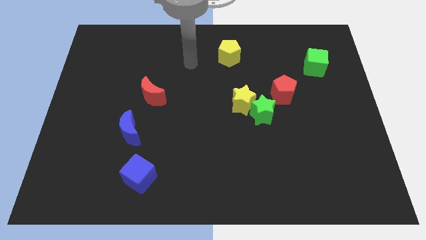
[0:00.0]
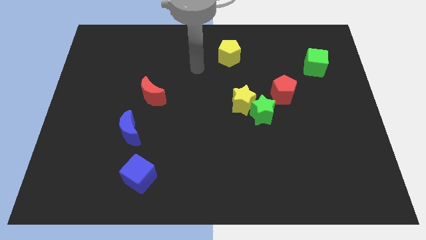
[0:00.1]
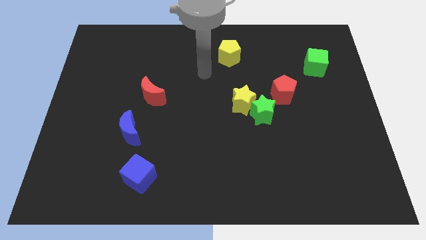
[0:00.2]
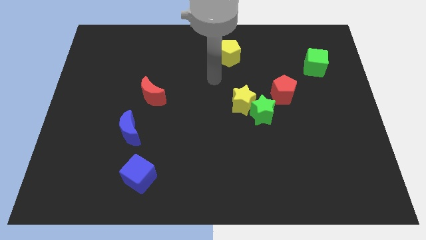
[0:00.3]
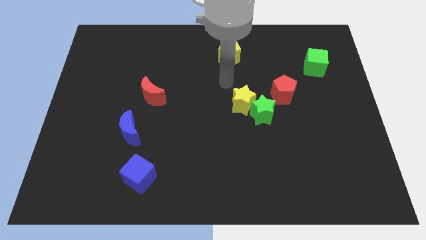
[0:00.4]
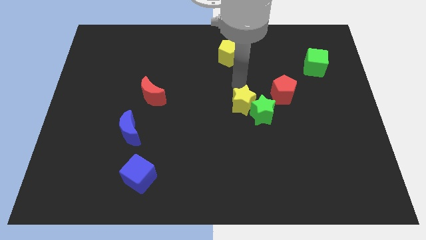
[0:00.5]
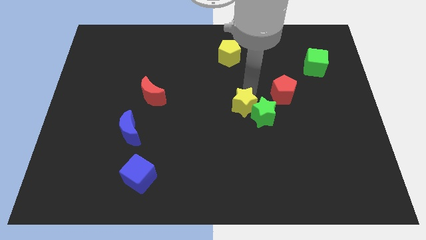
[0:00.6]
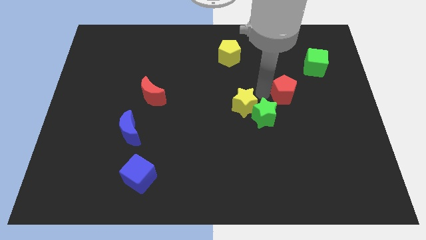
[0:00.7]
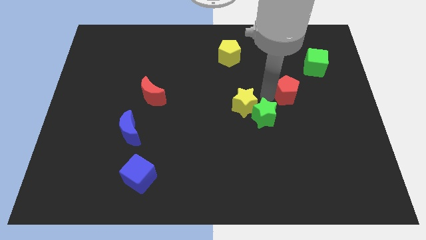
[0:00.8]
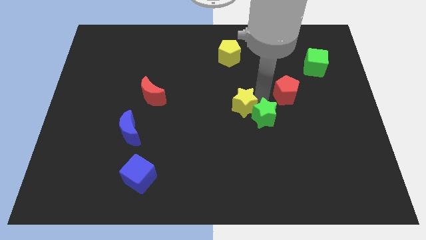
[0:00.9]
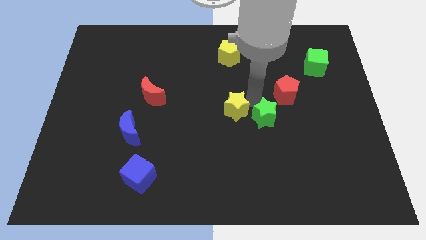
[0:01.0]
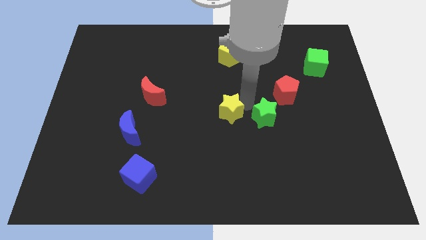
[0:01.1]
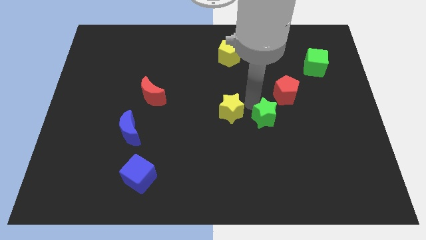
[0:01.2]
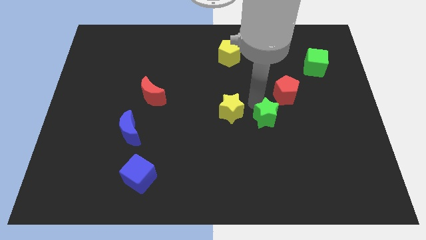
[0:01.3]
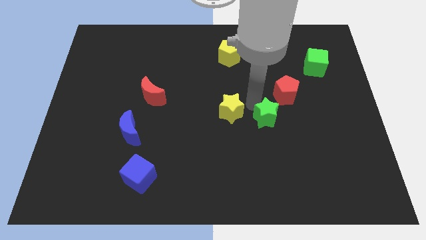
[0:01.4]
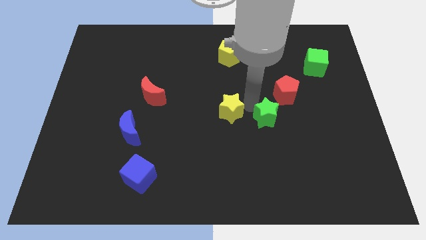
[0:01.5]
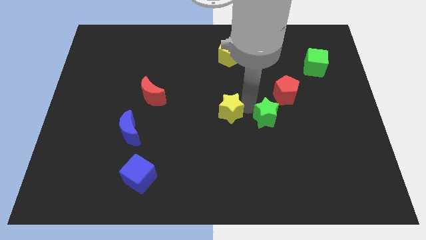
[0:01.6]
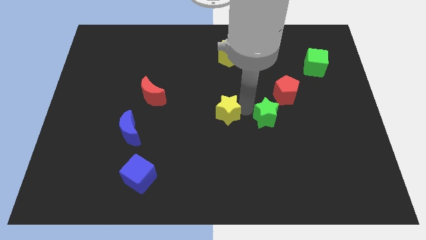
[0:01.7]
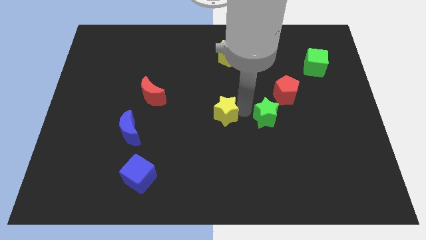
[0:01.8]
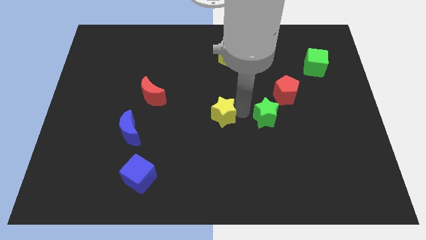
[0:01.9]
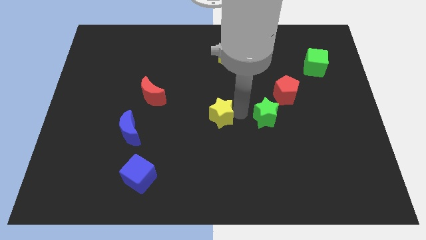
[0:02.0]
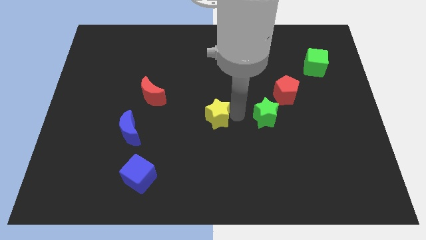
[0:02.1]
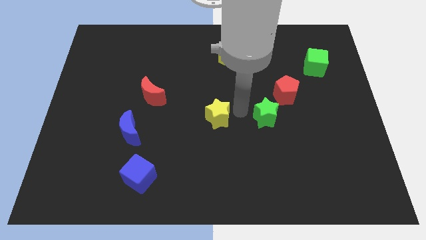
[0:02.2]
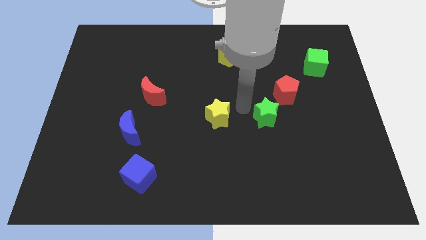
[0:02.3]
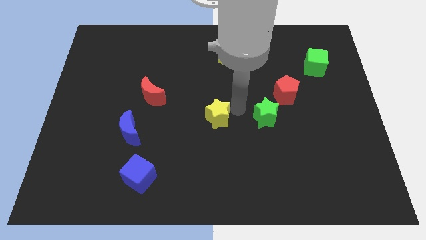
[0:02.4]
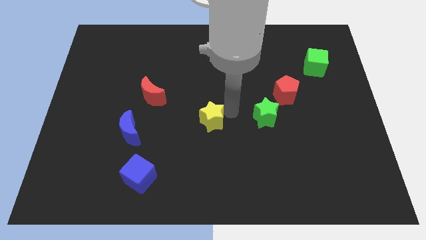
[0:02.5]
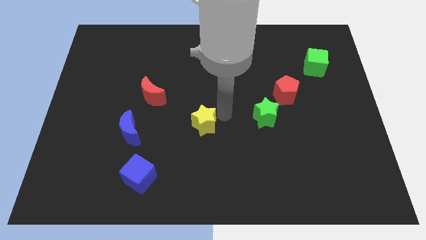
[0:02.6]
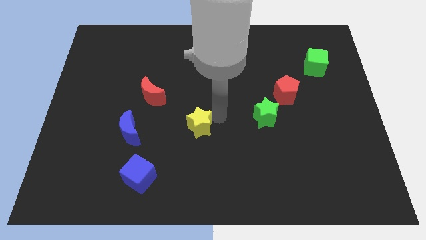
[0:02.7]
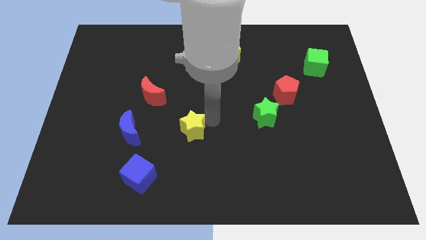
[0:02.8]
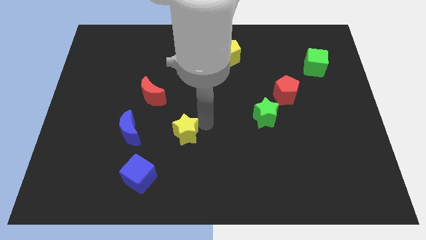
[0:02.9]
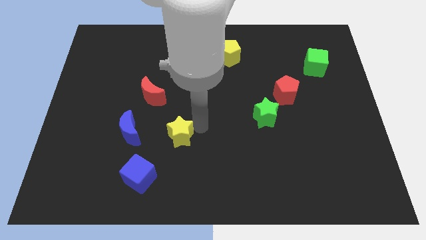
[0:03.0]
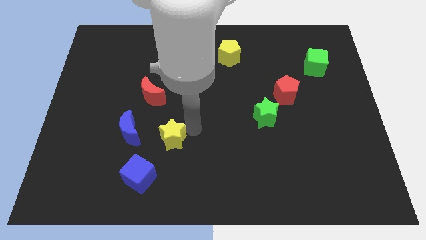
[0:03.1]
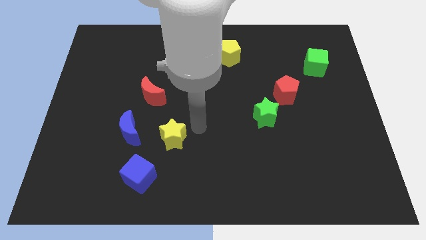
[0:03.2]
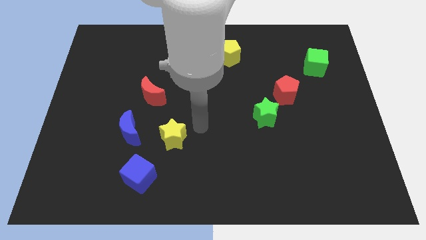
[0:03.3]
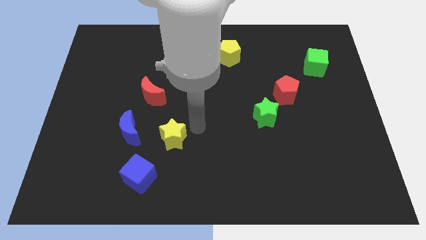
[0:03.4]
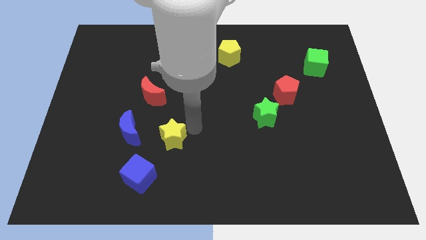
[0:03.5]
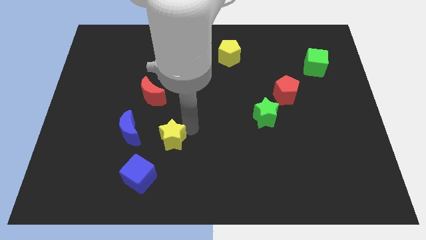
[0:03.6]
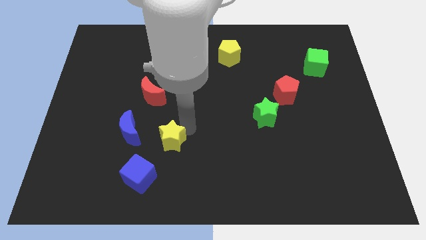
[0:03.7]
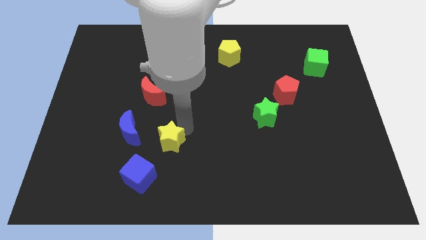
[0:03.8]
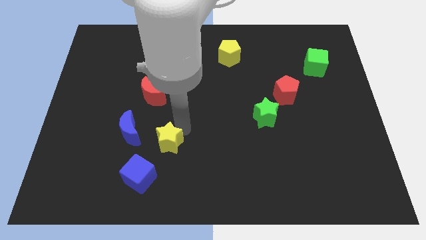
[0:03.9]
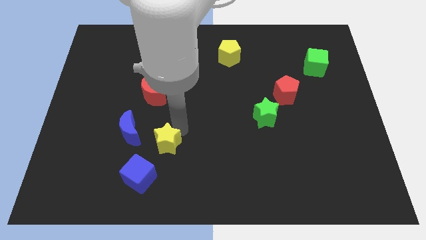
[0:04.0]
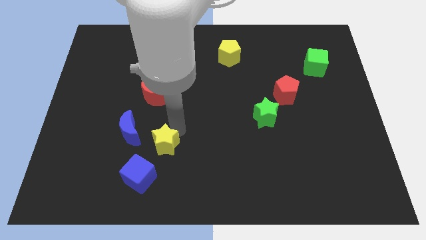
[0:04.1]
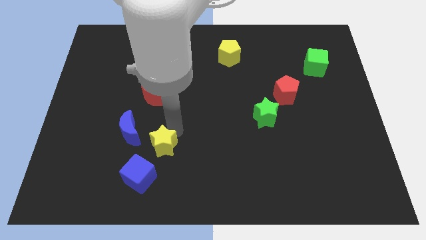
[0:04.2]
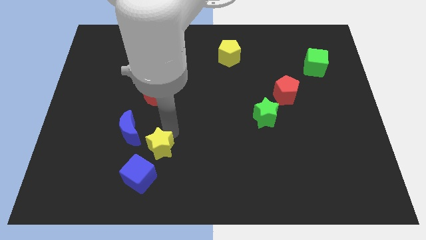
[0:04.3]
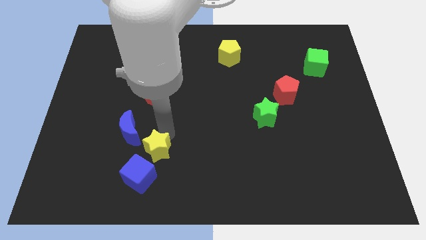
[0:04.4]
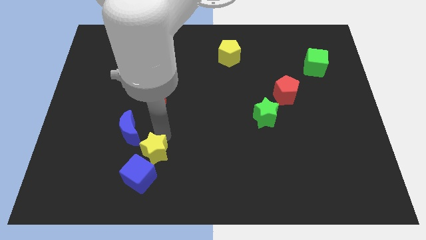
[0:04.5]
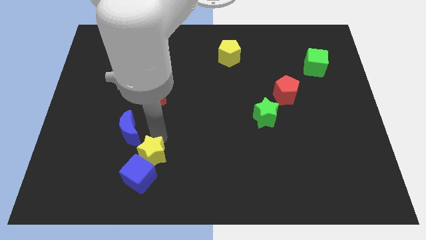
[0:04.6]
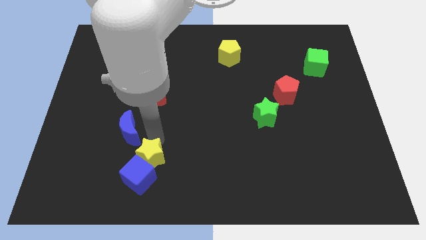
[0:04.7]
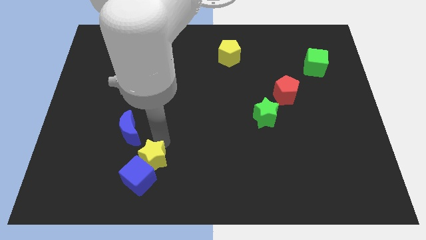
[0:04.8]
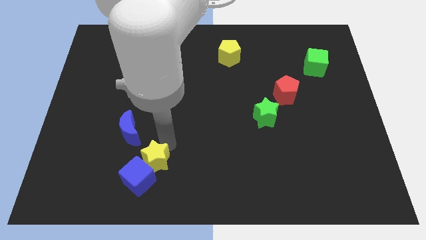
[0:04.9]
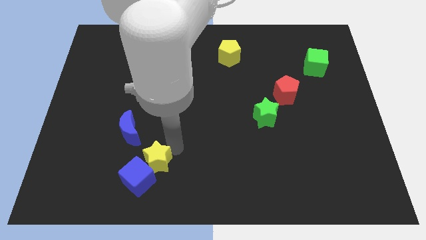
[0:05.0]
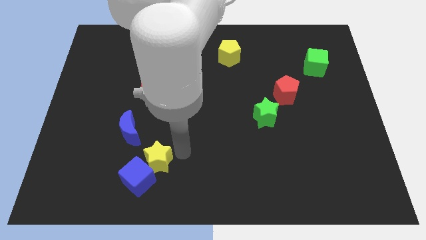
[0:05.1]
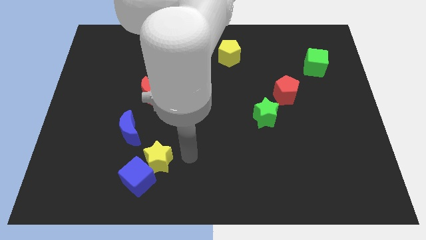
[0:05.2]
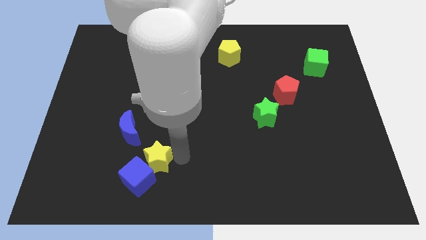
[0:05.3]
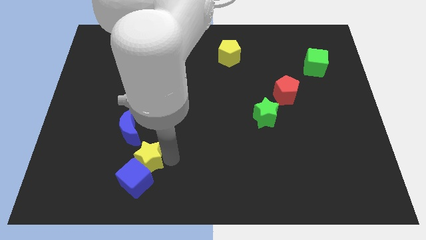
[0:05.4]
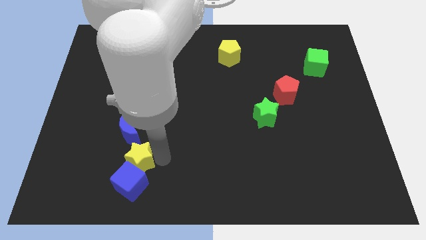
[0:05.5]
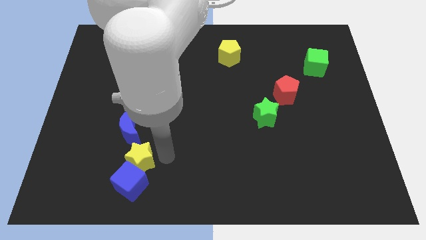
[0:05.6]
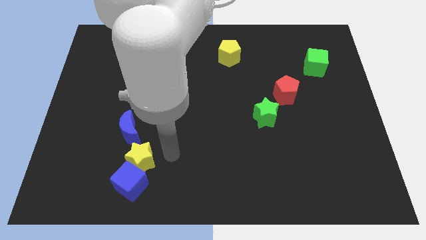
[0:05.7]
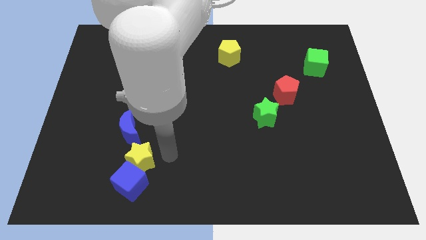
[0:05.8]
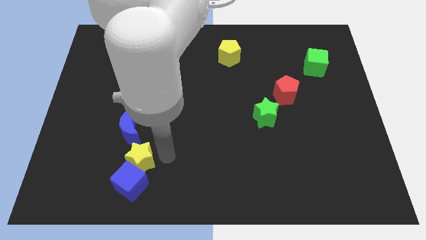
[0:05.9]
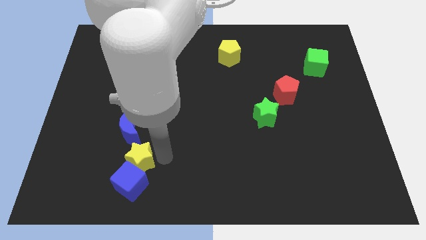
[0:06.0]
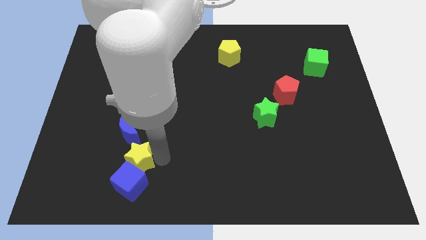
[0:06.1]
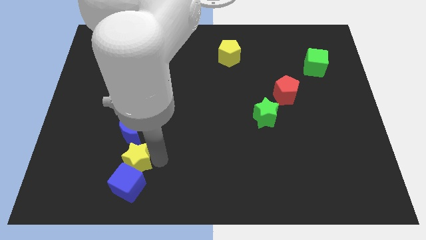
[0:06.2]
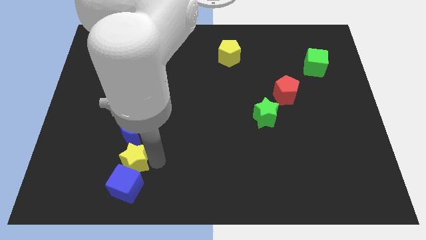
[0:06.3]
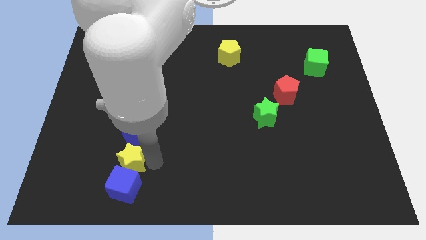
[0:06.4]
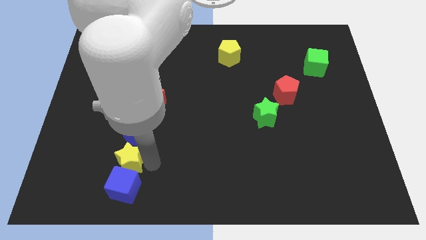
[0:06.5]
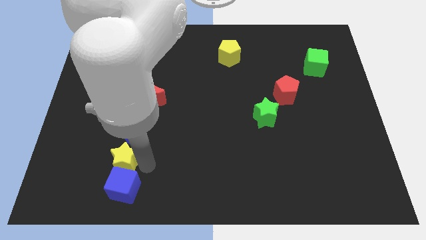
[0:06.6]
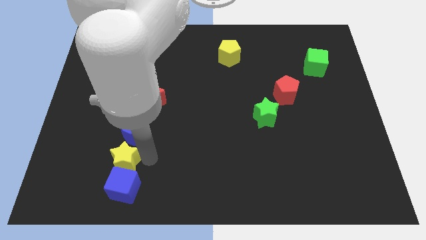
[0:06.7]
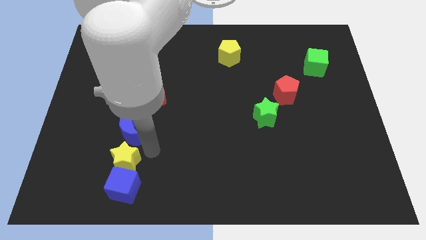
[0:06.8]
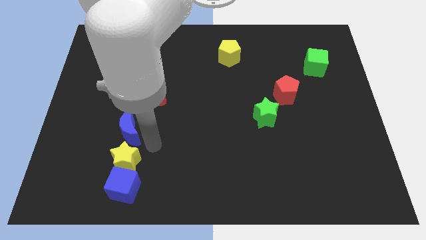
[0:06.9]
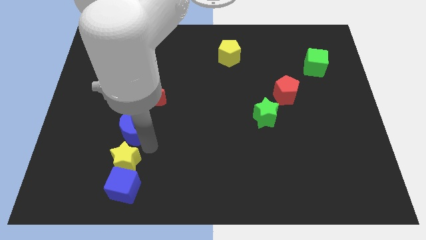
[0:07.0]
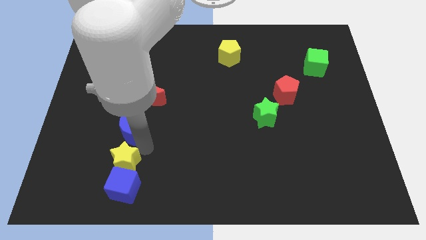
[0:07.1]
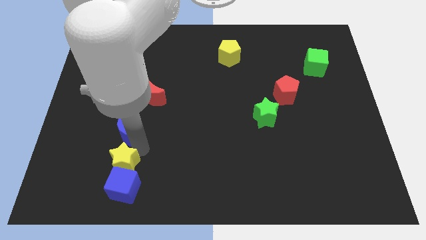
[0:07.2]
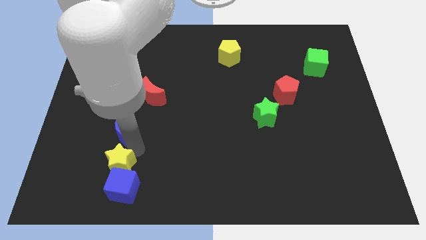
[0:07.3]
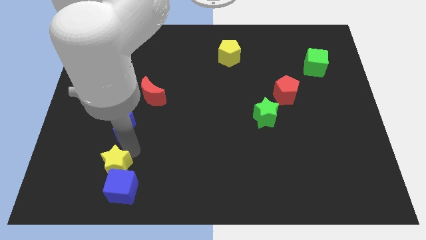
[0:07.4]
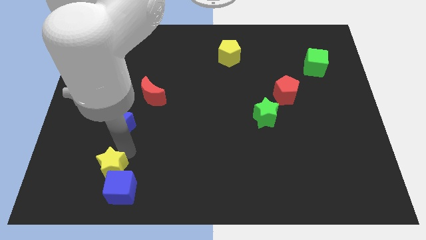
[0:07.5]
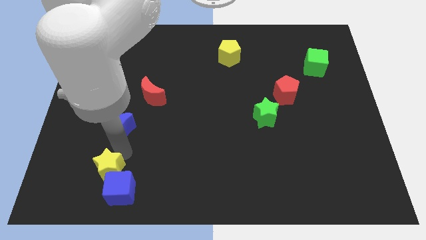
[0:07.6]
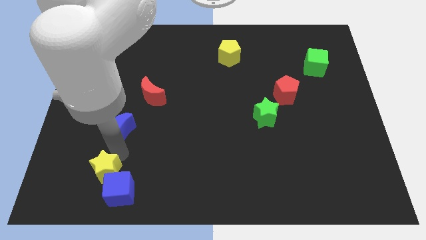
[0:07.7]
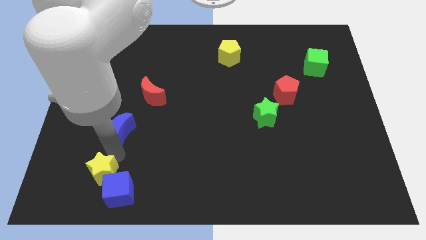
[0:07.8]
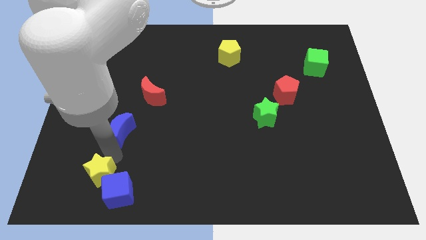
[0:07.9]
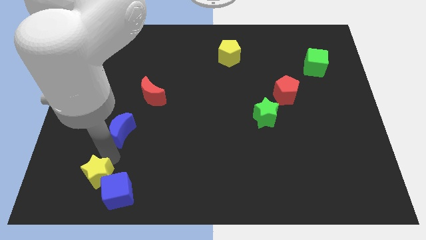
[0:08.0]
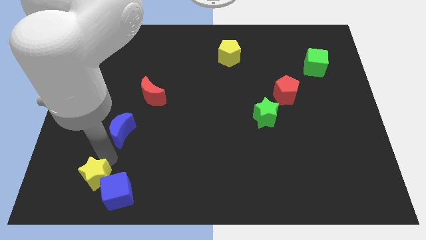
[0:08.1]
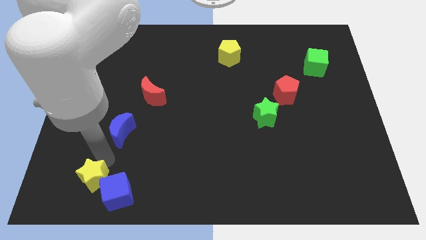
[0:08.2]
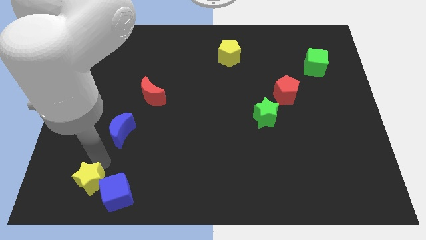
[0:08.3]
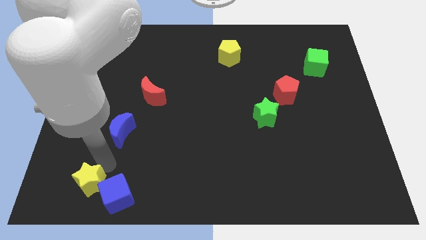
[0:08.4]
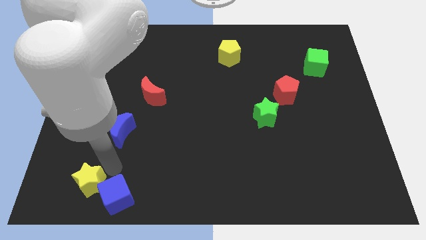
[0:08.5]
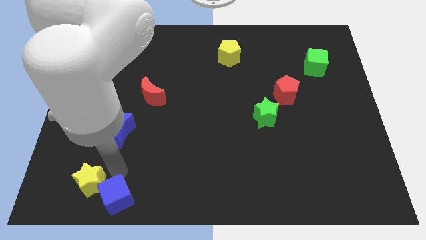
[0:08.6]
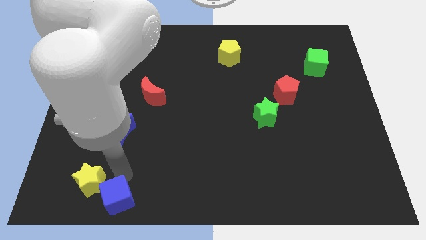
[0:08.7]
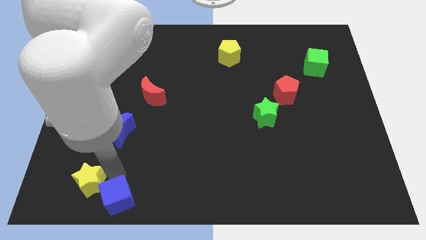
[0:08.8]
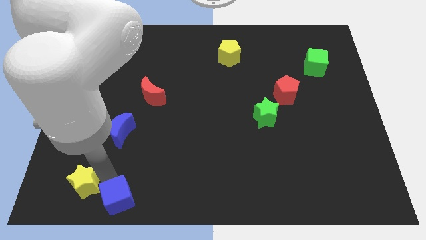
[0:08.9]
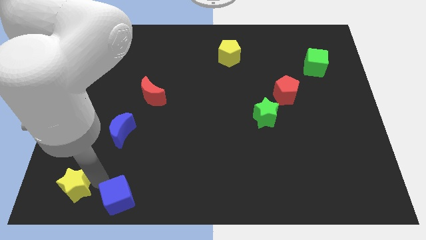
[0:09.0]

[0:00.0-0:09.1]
put the yellow star to the lower left corner
